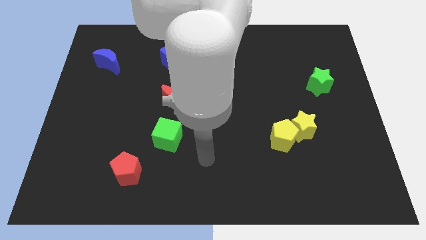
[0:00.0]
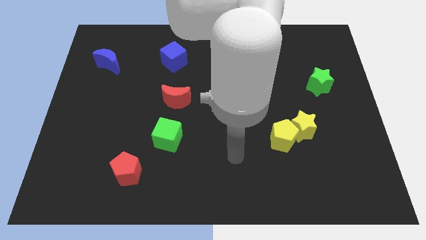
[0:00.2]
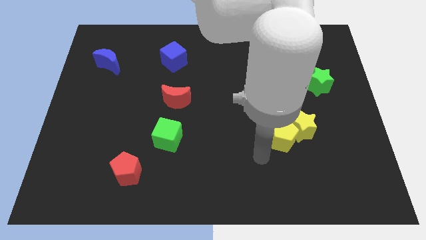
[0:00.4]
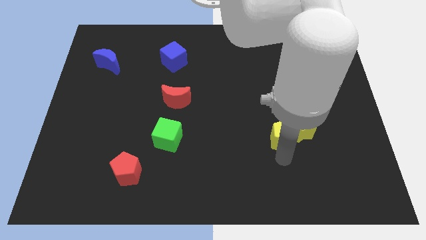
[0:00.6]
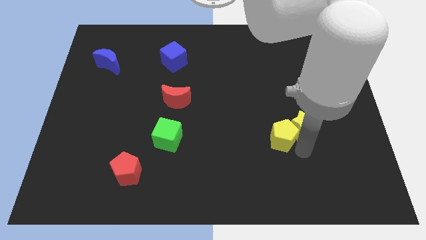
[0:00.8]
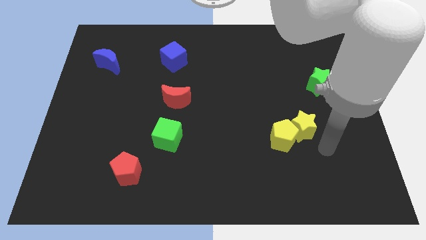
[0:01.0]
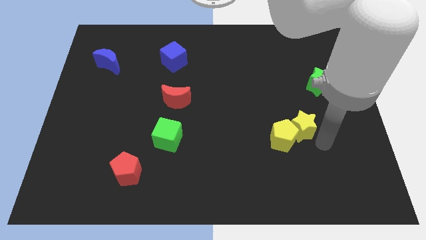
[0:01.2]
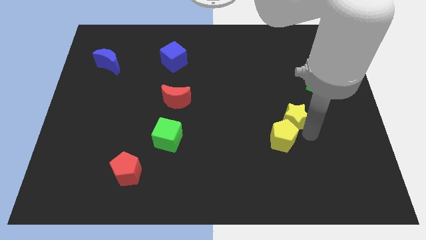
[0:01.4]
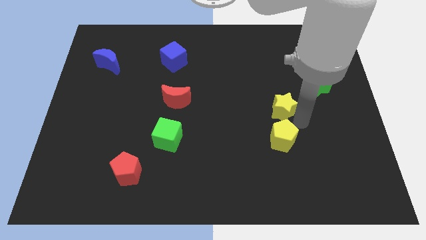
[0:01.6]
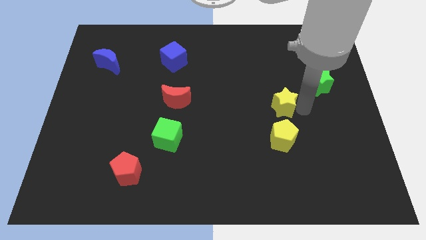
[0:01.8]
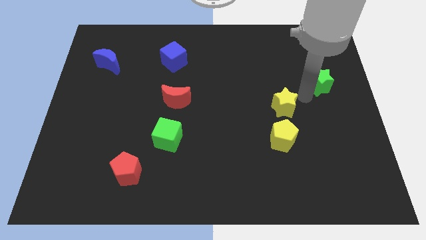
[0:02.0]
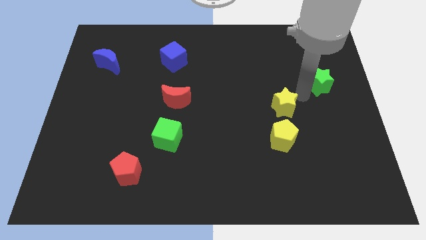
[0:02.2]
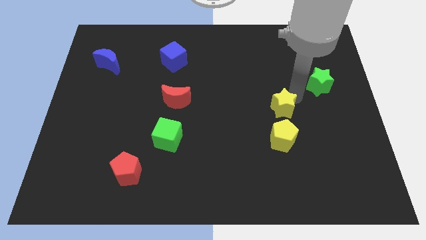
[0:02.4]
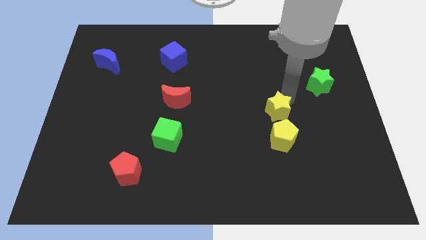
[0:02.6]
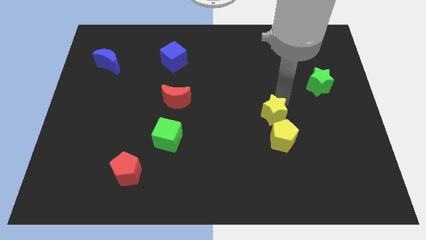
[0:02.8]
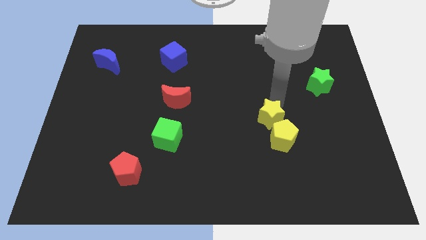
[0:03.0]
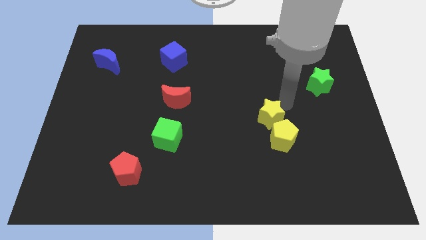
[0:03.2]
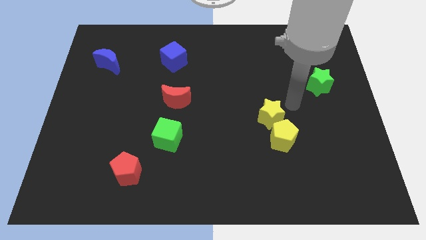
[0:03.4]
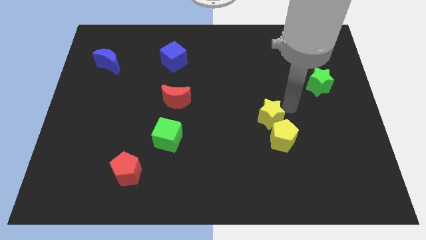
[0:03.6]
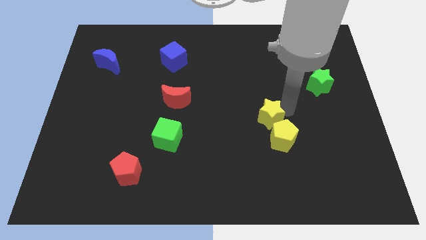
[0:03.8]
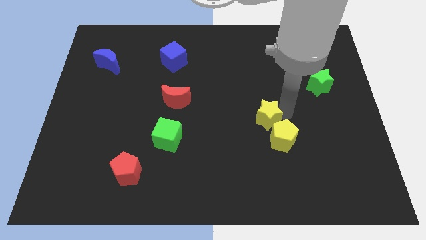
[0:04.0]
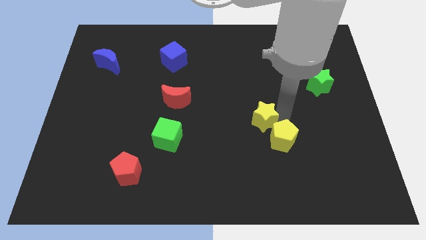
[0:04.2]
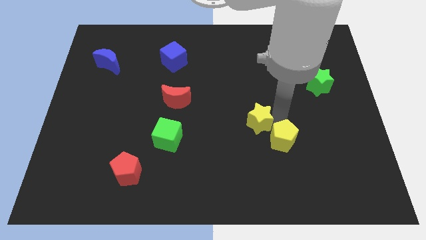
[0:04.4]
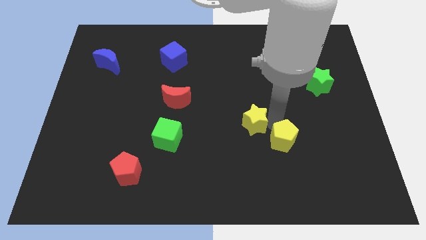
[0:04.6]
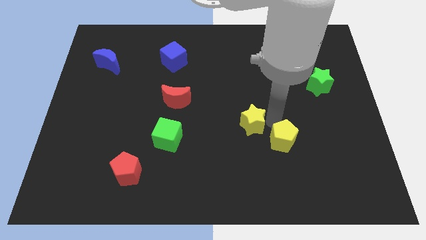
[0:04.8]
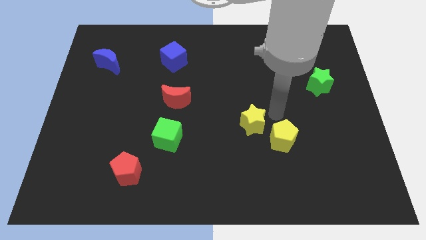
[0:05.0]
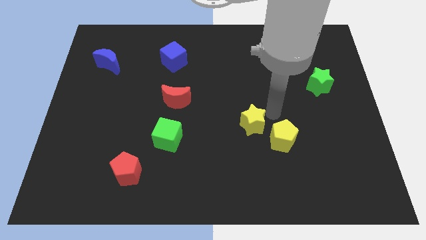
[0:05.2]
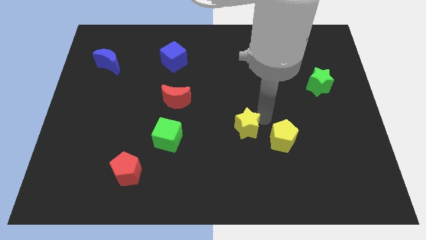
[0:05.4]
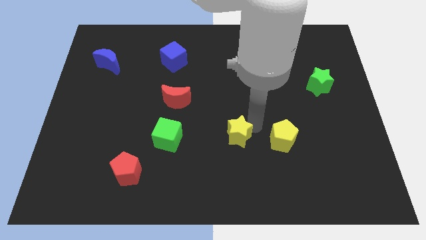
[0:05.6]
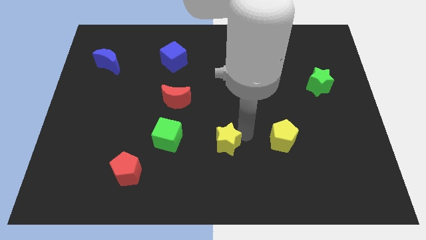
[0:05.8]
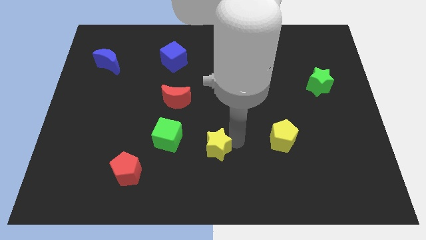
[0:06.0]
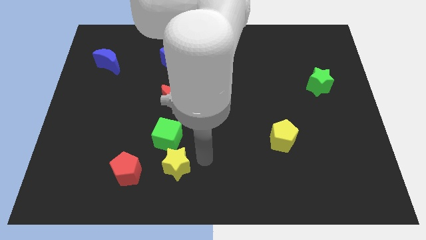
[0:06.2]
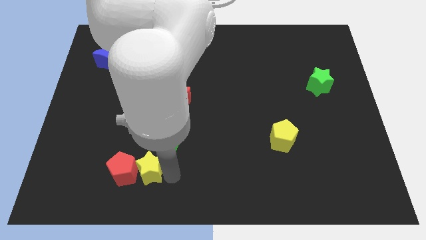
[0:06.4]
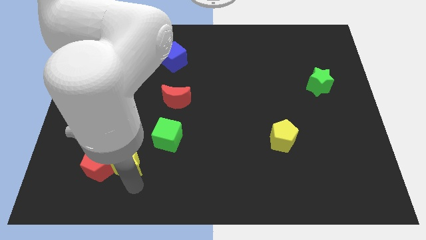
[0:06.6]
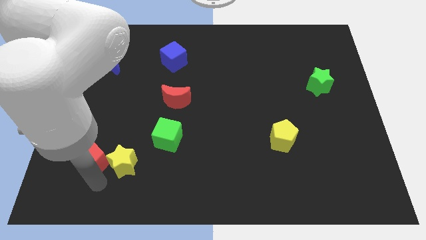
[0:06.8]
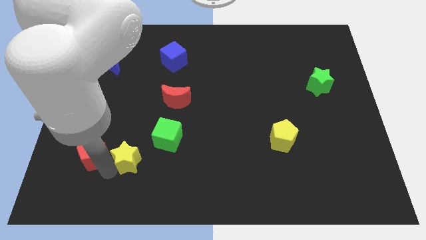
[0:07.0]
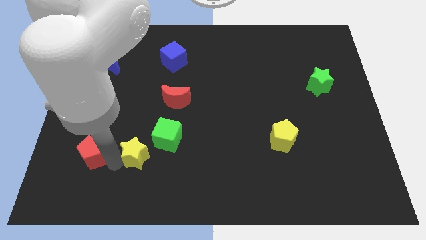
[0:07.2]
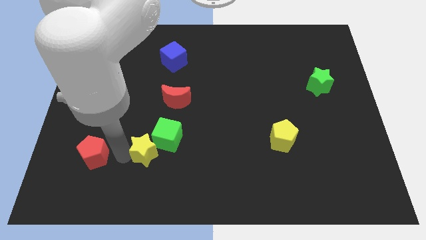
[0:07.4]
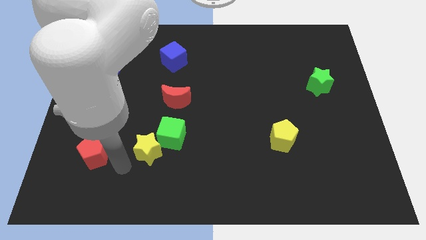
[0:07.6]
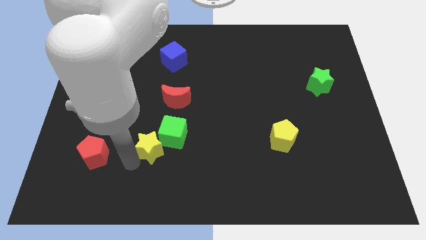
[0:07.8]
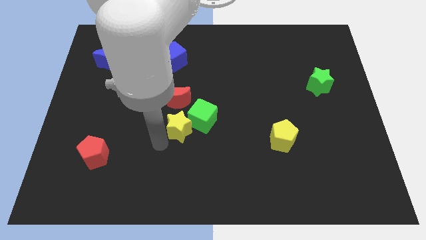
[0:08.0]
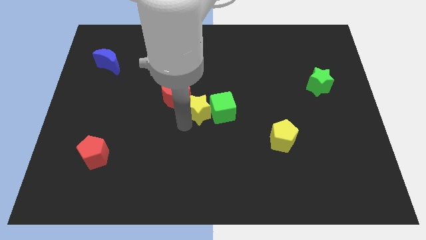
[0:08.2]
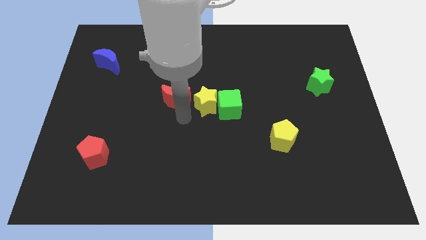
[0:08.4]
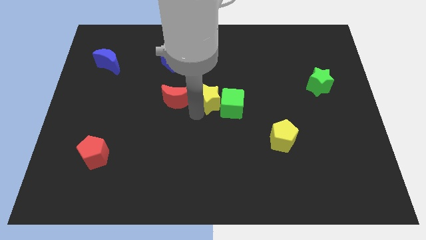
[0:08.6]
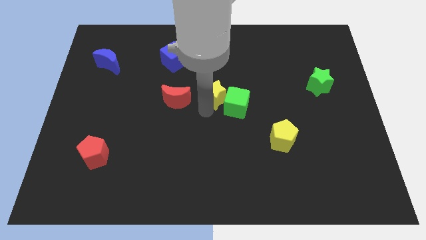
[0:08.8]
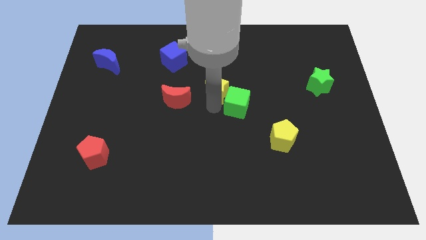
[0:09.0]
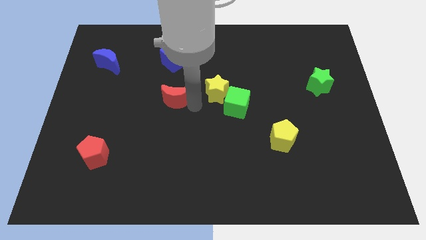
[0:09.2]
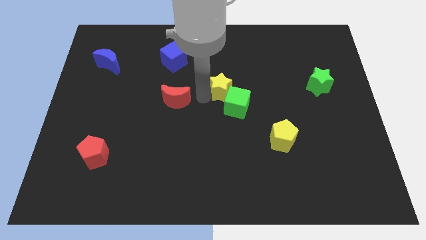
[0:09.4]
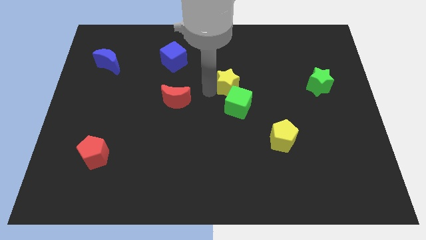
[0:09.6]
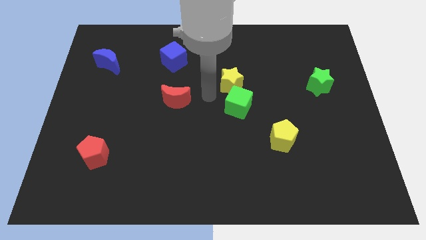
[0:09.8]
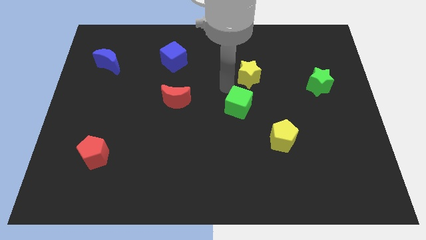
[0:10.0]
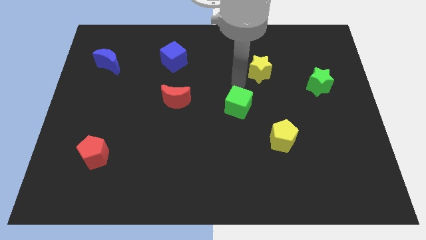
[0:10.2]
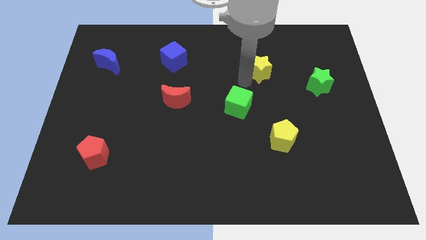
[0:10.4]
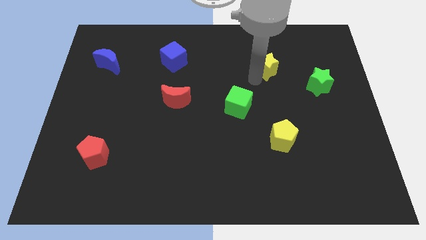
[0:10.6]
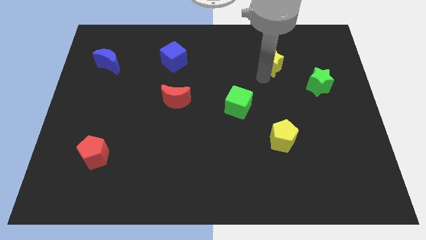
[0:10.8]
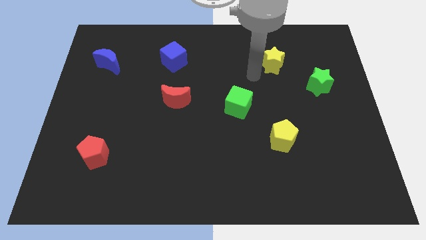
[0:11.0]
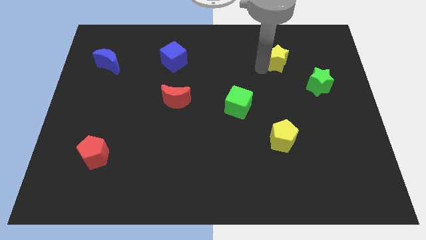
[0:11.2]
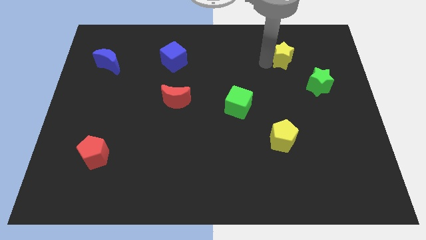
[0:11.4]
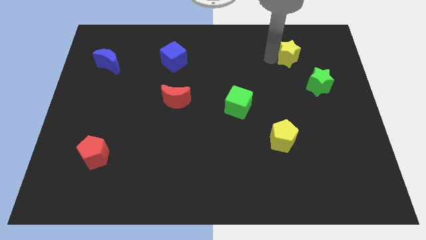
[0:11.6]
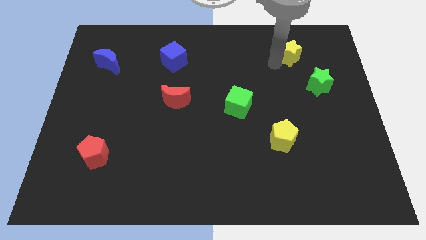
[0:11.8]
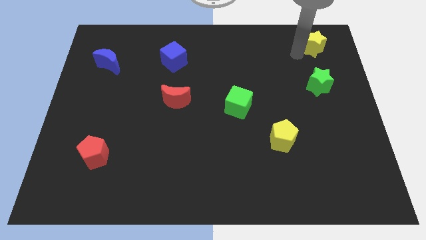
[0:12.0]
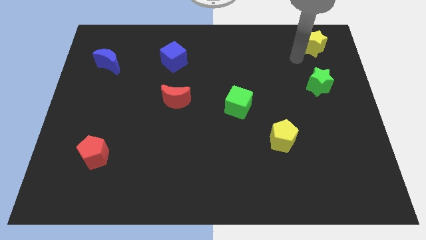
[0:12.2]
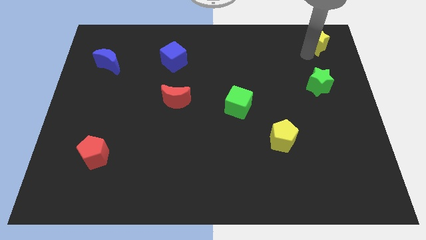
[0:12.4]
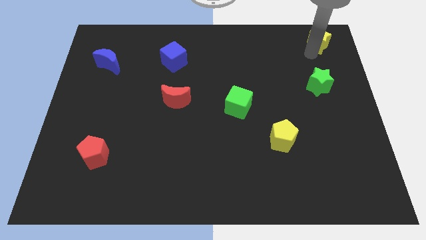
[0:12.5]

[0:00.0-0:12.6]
put the yellow star to the top right
